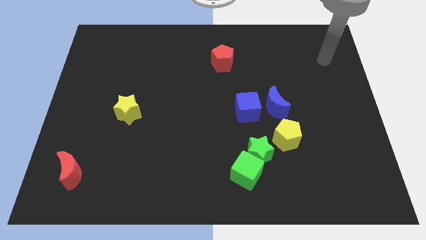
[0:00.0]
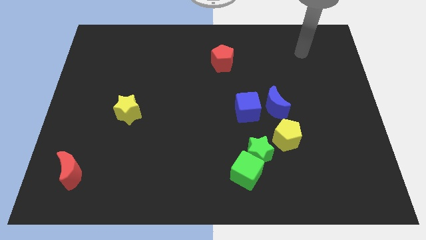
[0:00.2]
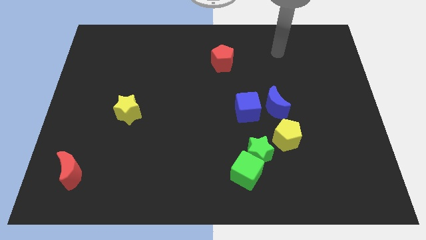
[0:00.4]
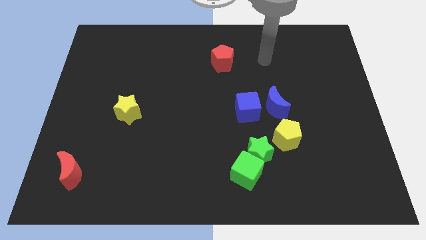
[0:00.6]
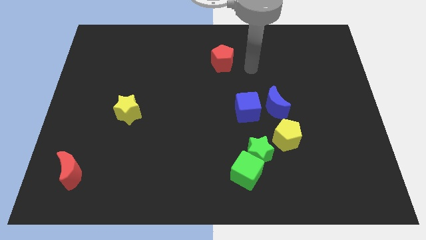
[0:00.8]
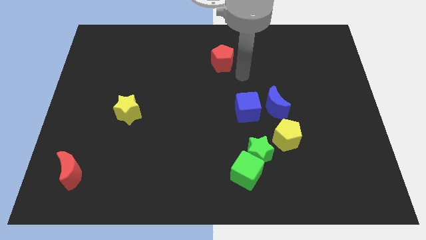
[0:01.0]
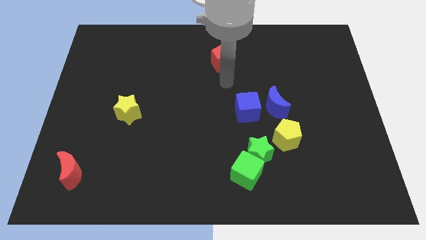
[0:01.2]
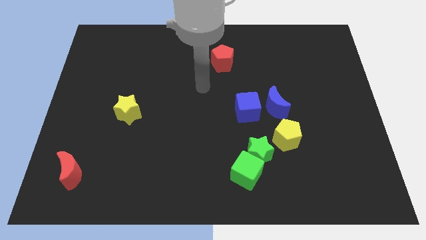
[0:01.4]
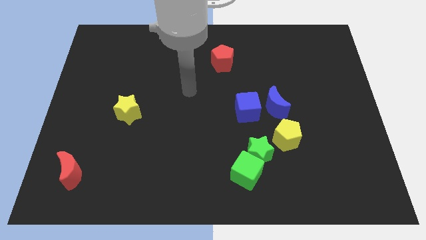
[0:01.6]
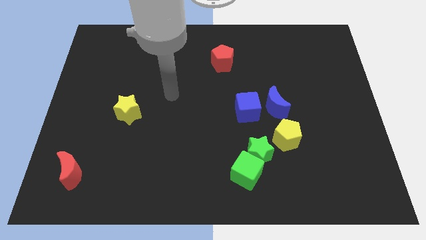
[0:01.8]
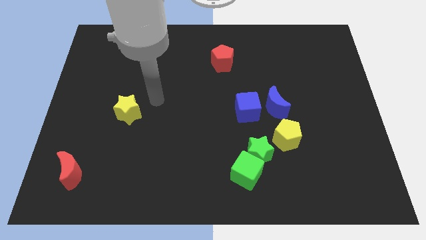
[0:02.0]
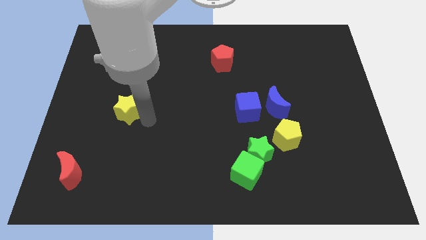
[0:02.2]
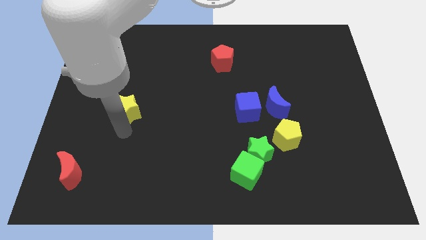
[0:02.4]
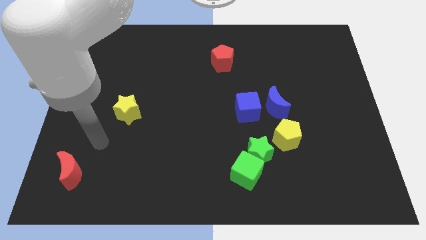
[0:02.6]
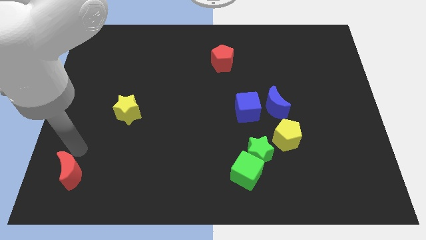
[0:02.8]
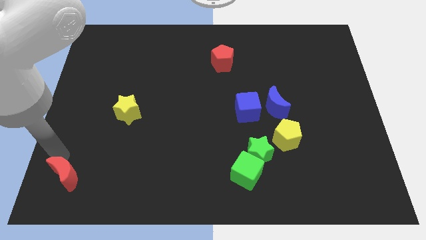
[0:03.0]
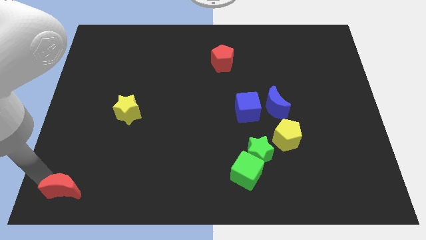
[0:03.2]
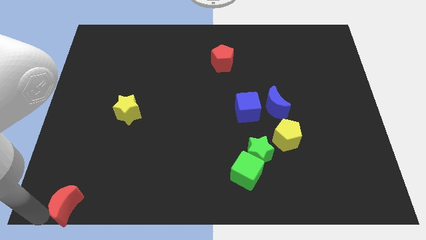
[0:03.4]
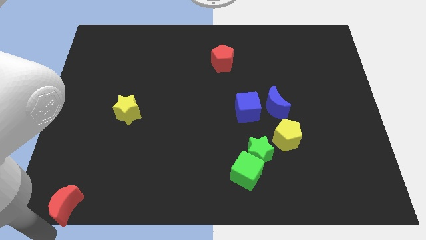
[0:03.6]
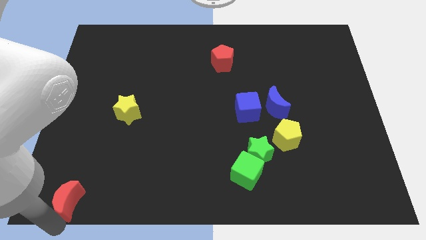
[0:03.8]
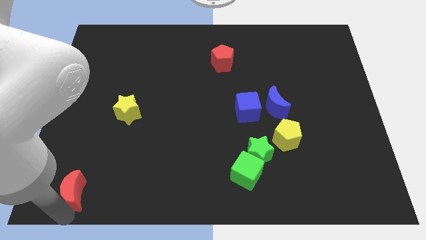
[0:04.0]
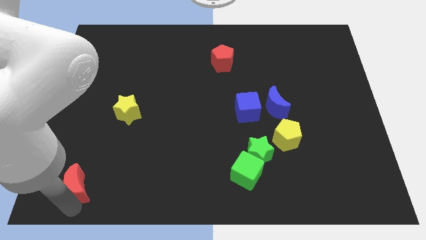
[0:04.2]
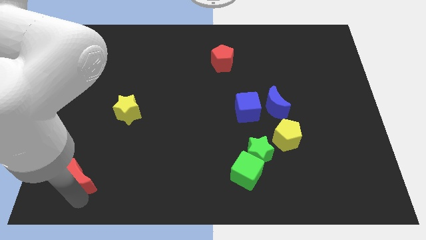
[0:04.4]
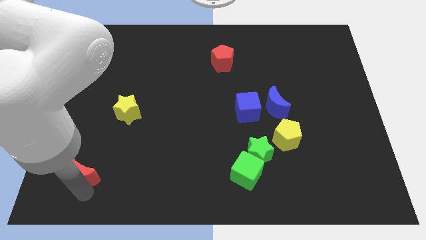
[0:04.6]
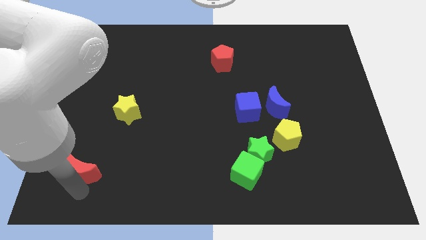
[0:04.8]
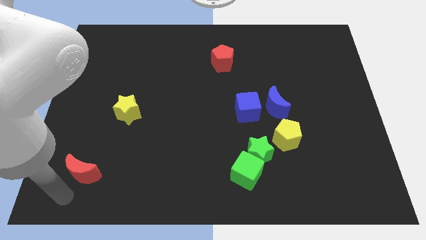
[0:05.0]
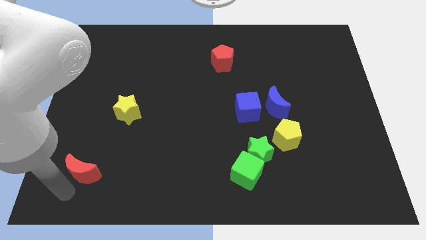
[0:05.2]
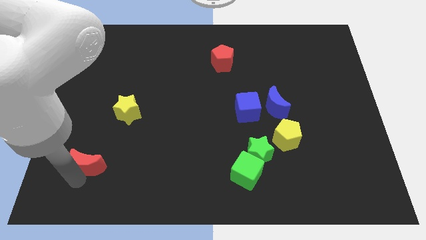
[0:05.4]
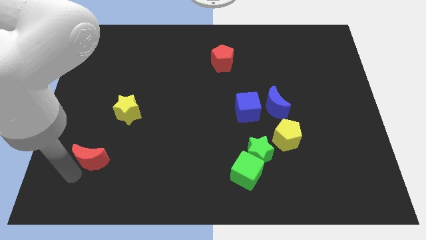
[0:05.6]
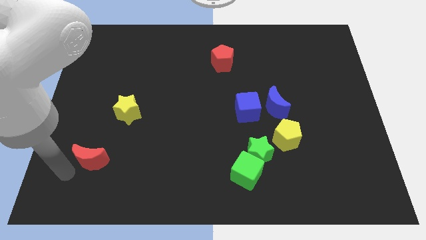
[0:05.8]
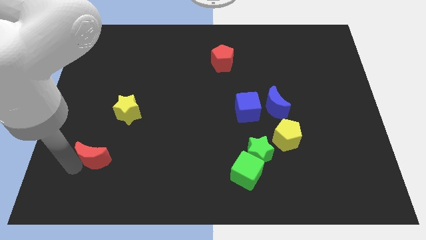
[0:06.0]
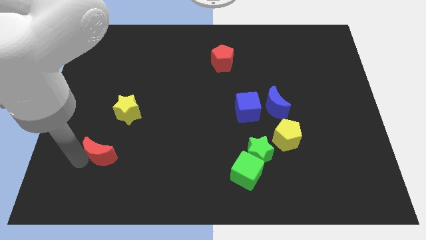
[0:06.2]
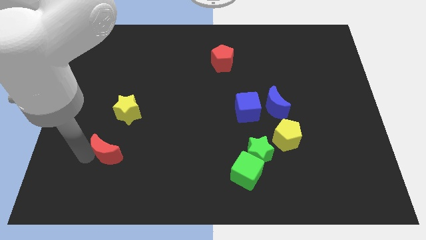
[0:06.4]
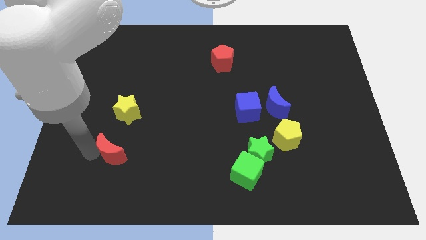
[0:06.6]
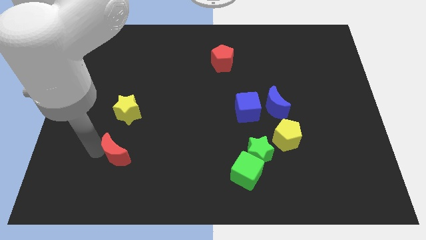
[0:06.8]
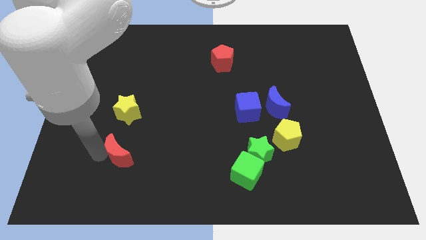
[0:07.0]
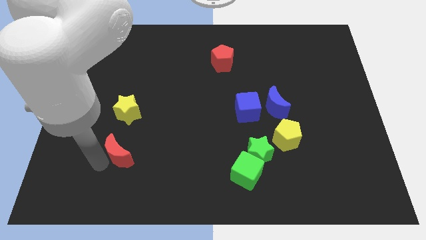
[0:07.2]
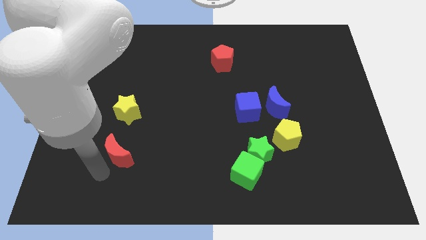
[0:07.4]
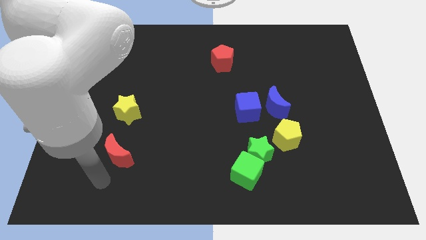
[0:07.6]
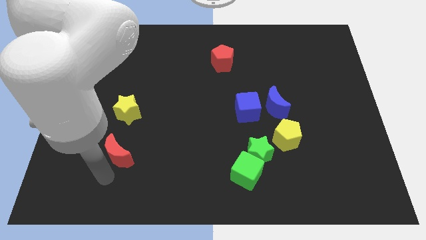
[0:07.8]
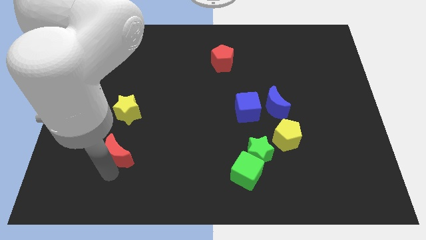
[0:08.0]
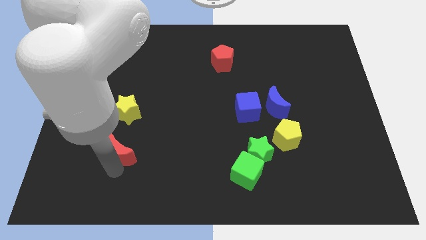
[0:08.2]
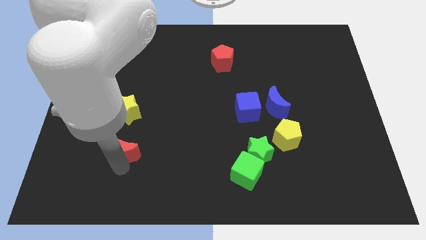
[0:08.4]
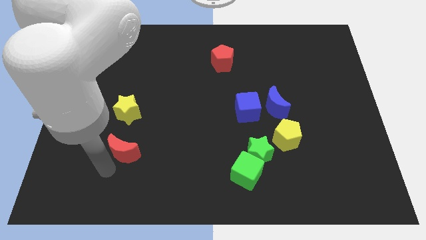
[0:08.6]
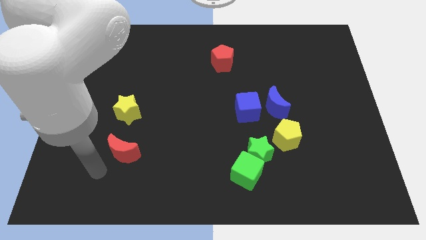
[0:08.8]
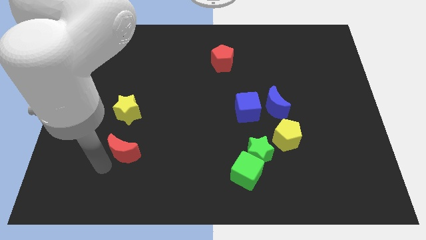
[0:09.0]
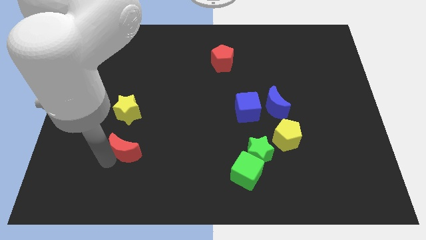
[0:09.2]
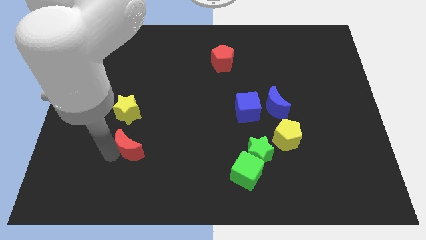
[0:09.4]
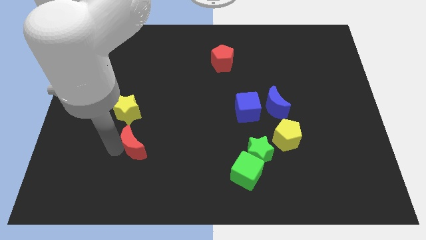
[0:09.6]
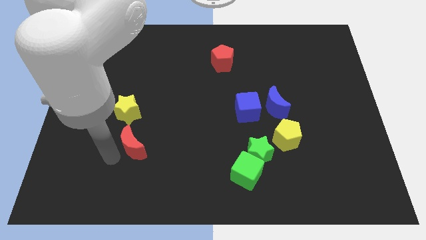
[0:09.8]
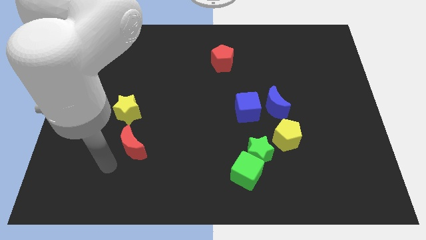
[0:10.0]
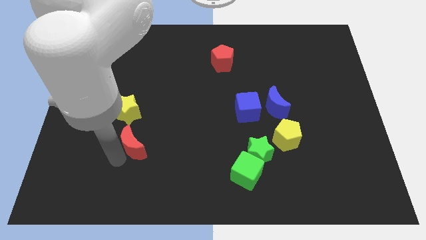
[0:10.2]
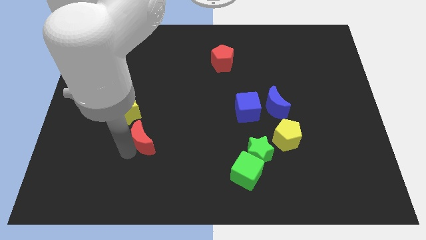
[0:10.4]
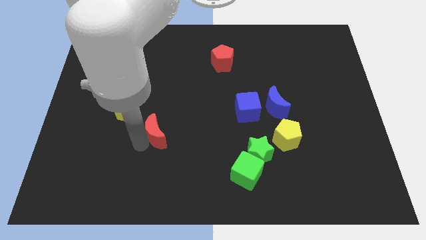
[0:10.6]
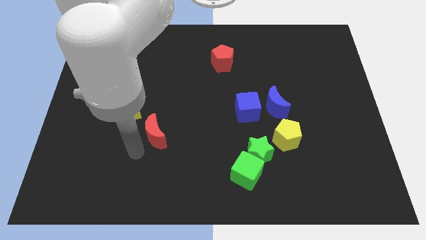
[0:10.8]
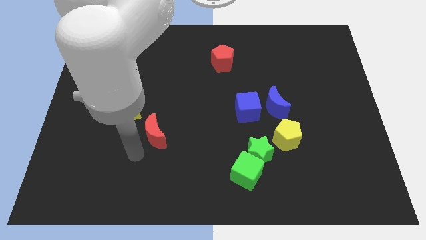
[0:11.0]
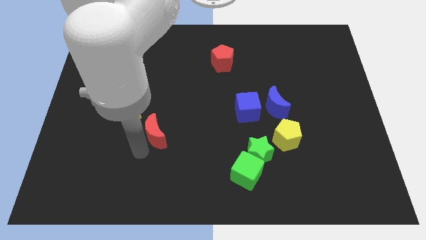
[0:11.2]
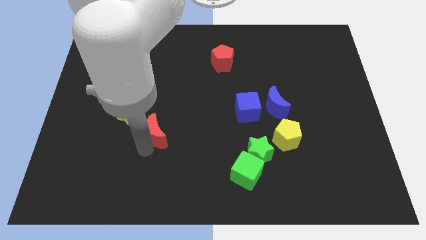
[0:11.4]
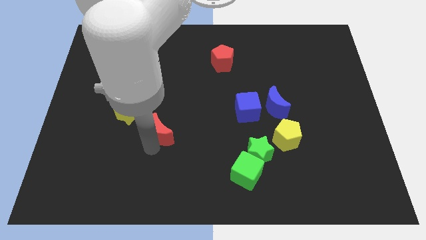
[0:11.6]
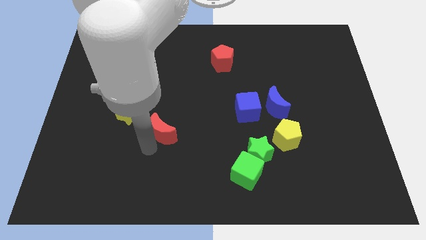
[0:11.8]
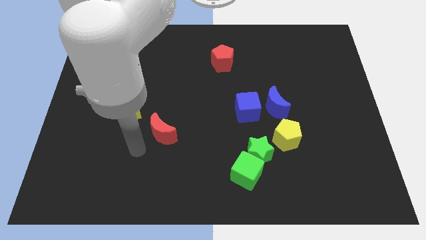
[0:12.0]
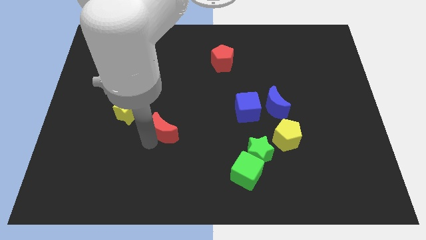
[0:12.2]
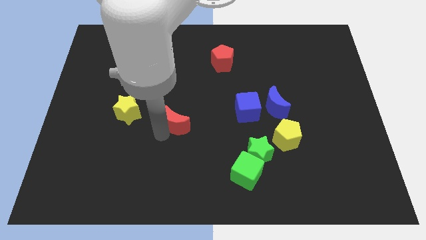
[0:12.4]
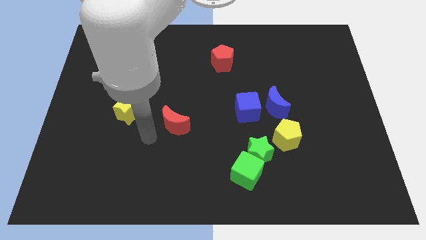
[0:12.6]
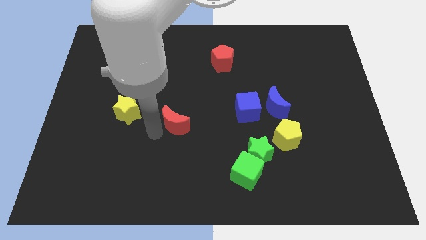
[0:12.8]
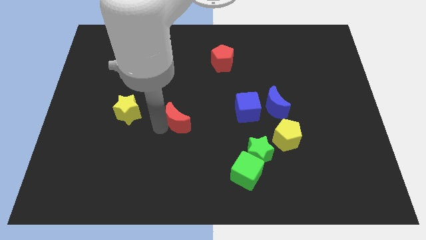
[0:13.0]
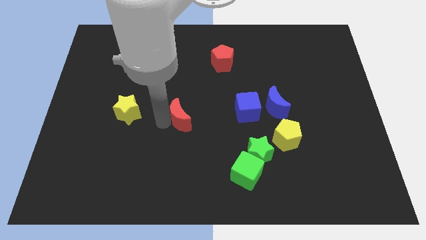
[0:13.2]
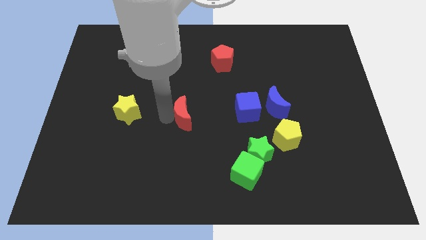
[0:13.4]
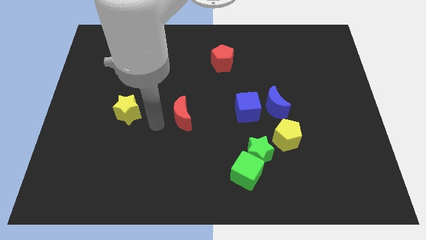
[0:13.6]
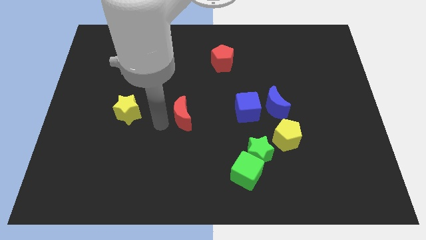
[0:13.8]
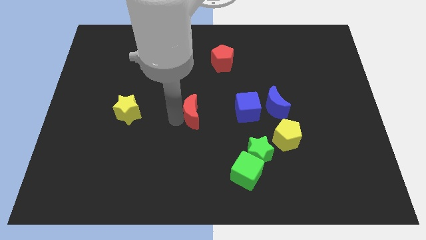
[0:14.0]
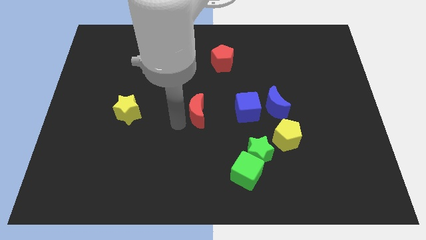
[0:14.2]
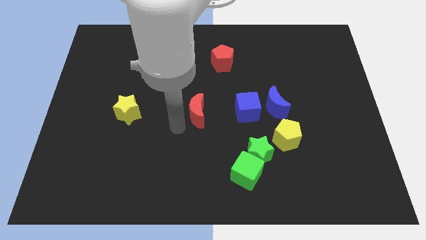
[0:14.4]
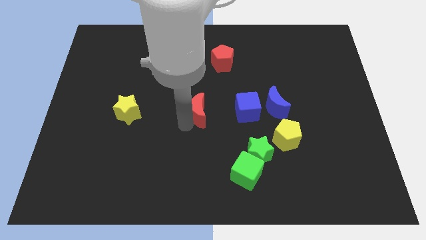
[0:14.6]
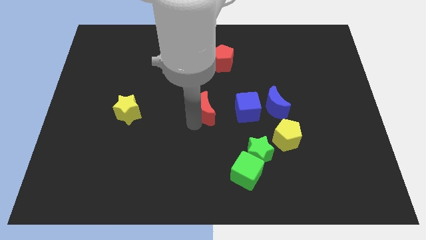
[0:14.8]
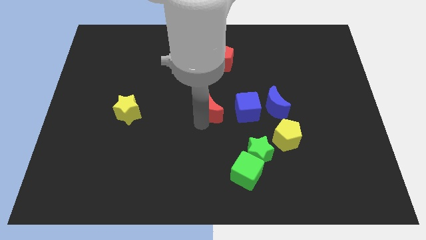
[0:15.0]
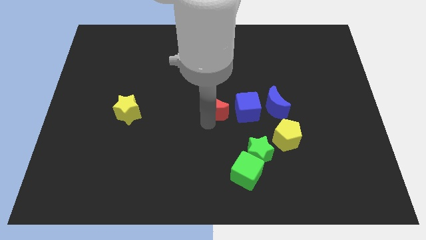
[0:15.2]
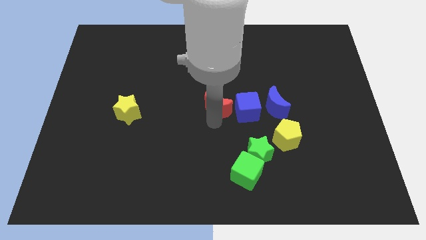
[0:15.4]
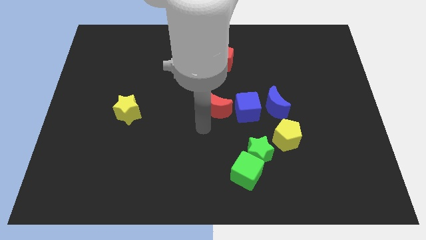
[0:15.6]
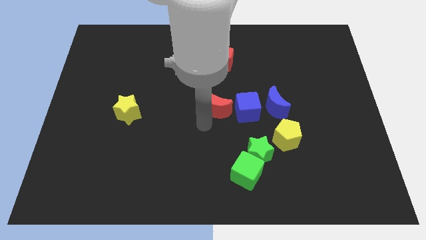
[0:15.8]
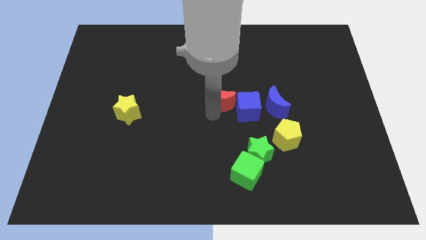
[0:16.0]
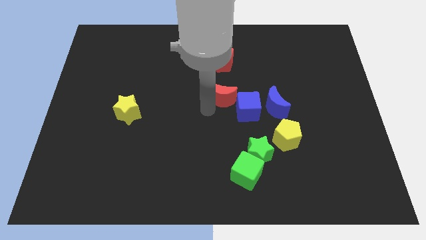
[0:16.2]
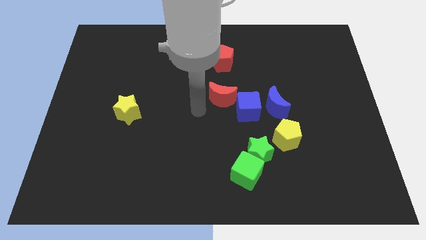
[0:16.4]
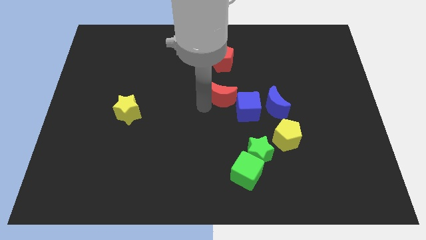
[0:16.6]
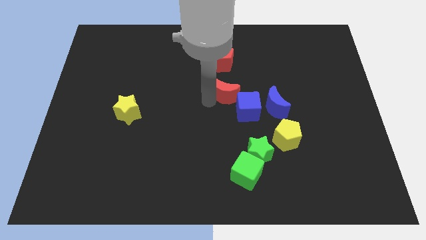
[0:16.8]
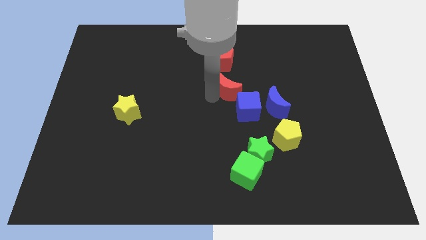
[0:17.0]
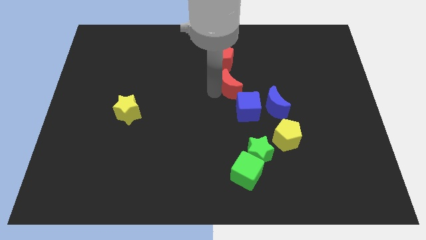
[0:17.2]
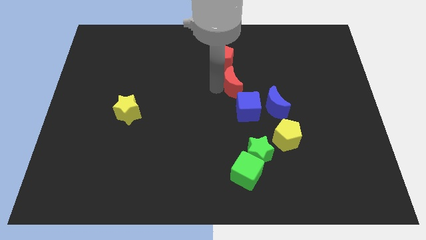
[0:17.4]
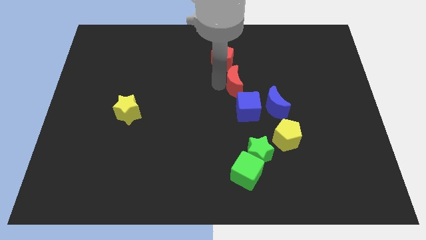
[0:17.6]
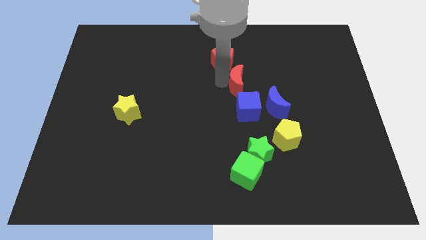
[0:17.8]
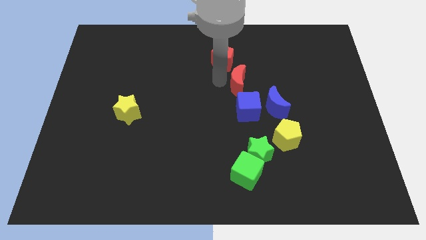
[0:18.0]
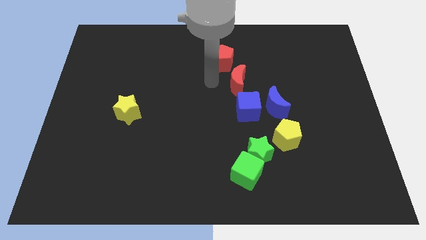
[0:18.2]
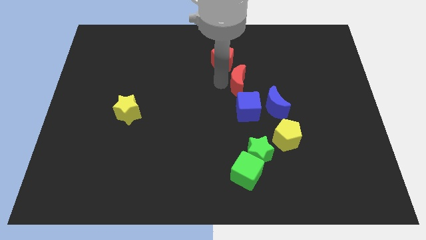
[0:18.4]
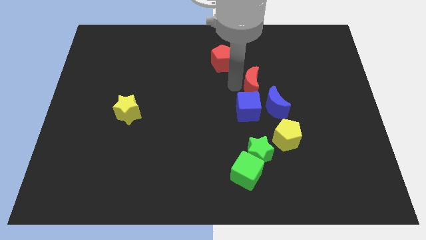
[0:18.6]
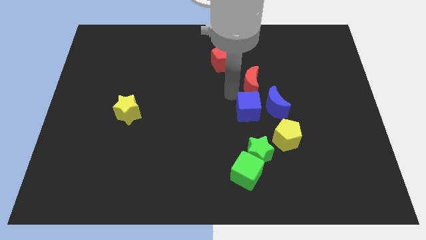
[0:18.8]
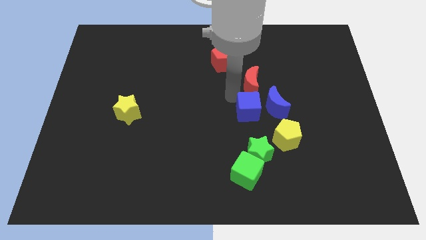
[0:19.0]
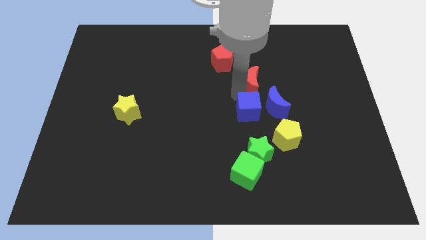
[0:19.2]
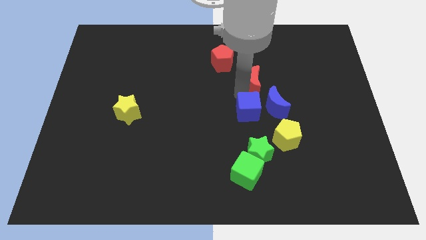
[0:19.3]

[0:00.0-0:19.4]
move the red moon to the top side of the blue moon
